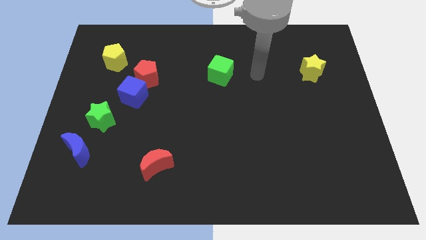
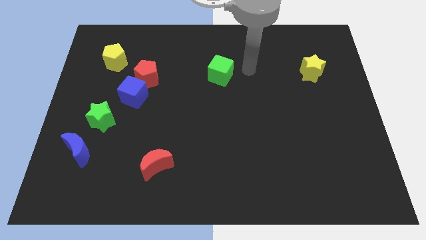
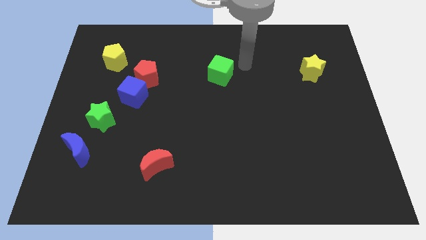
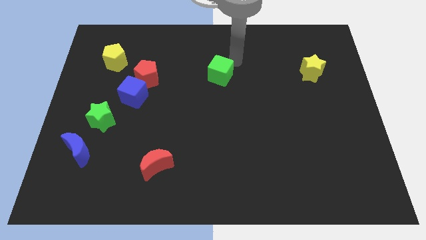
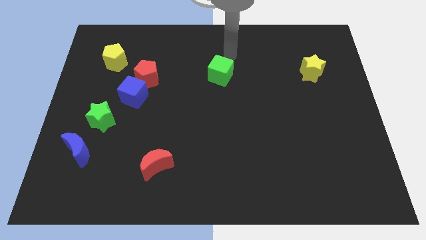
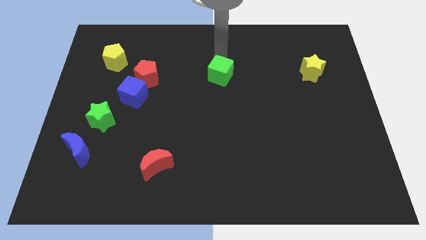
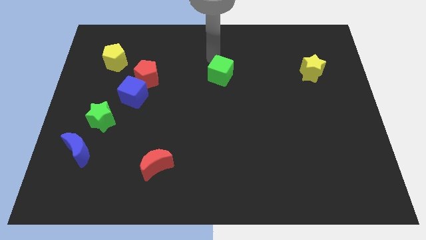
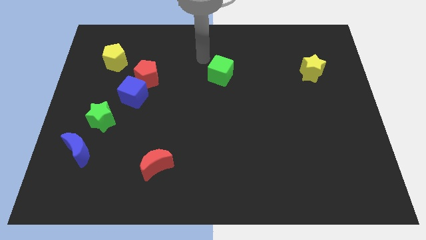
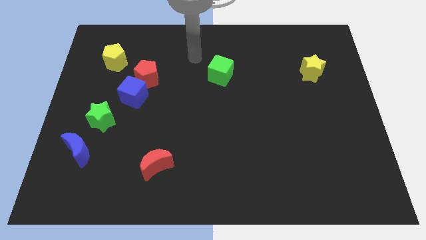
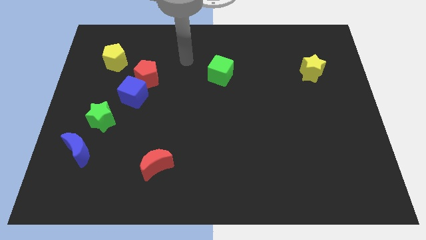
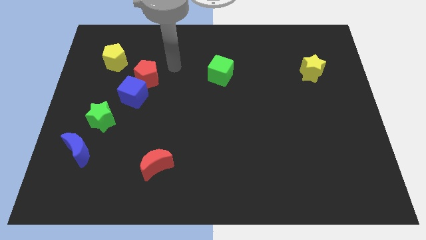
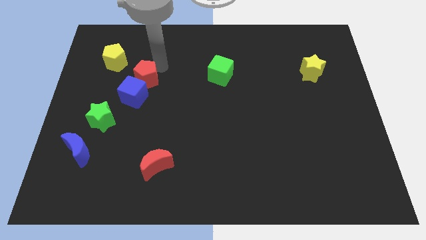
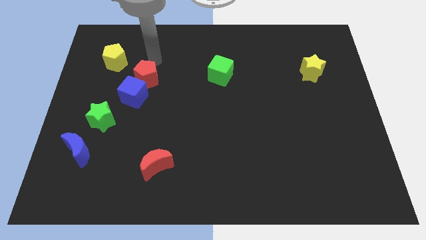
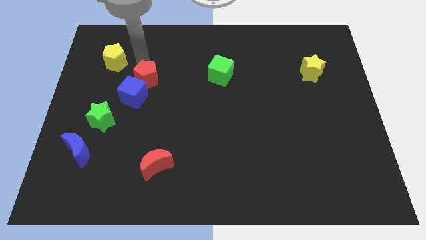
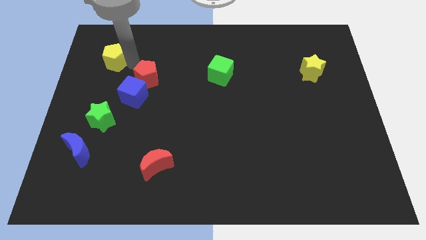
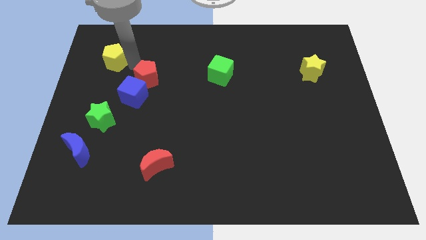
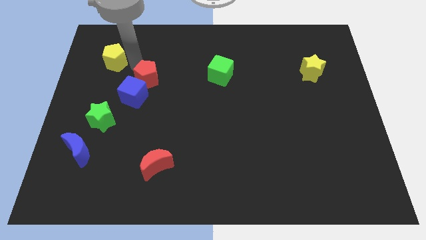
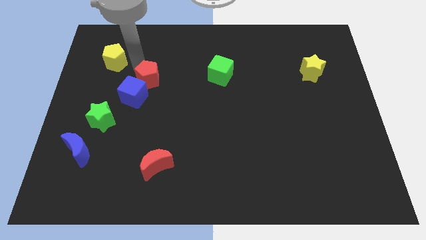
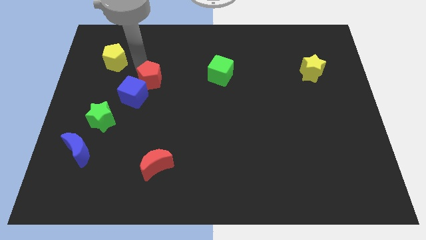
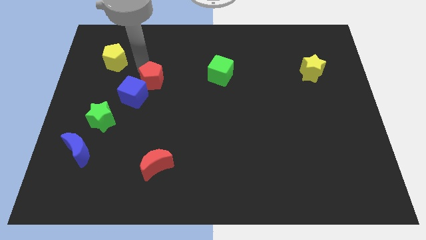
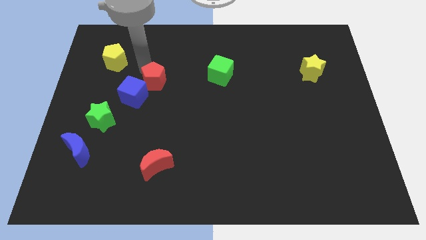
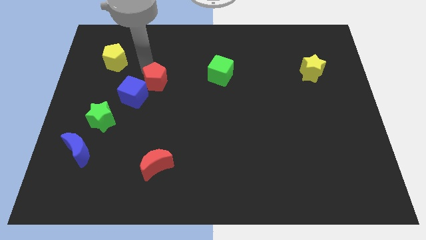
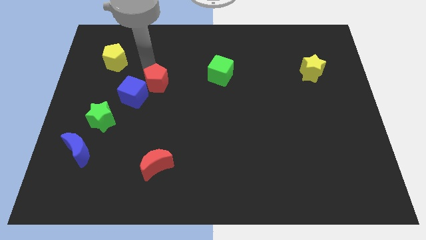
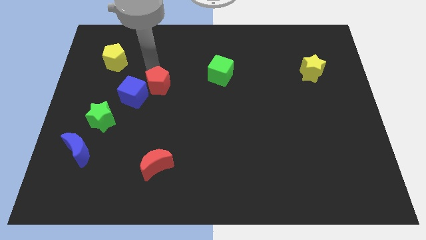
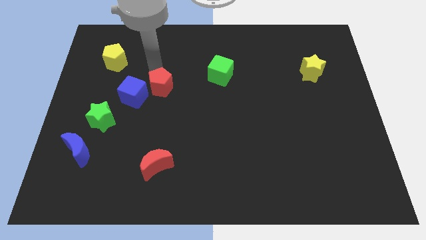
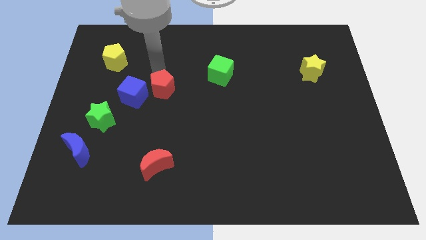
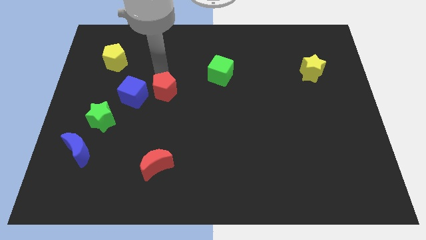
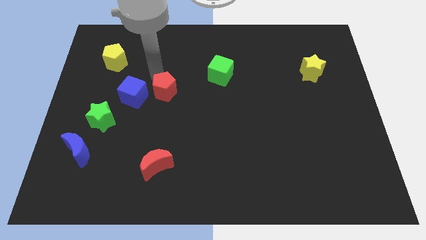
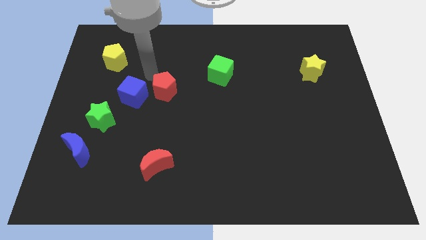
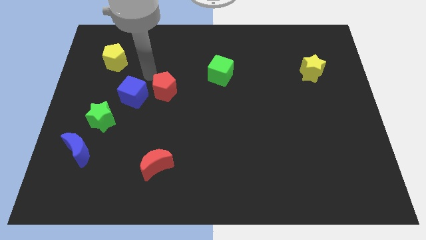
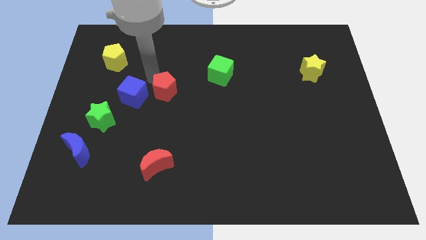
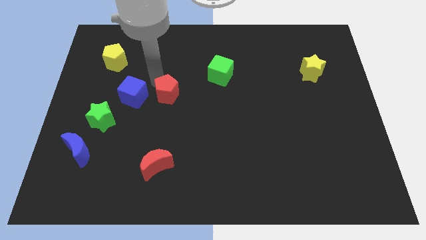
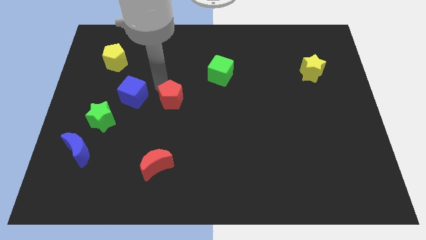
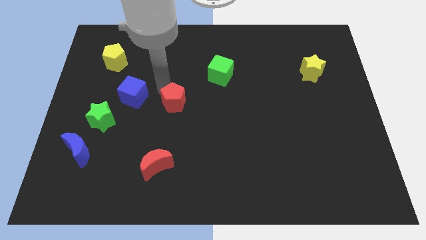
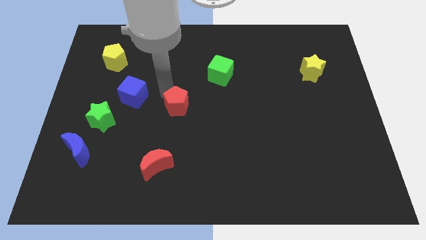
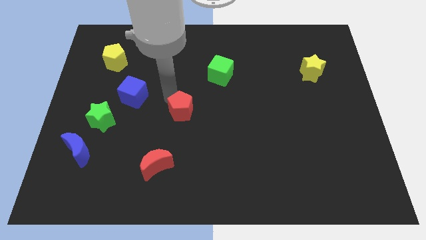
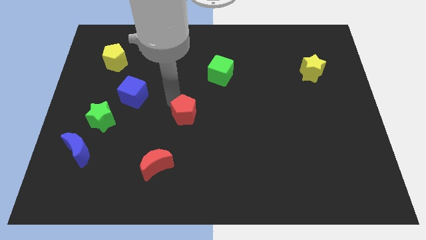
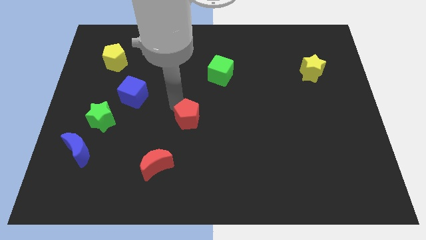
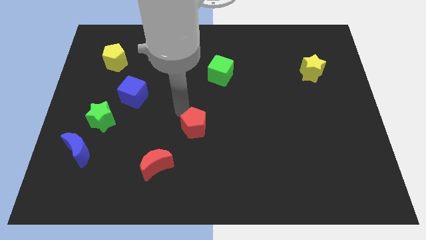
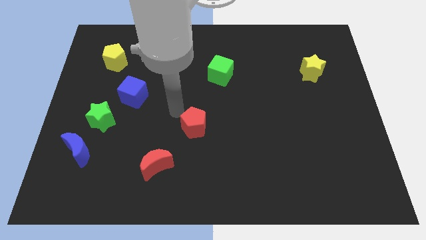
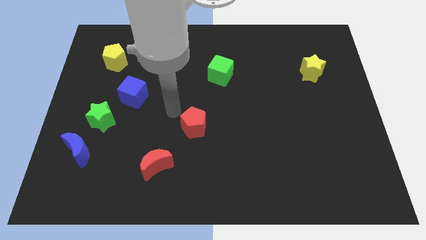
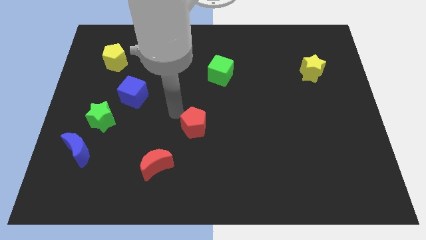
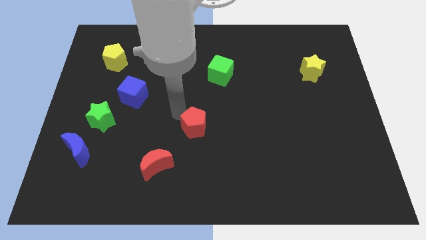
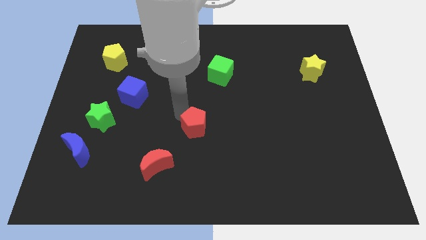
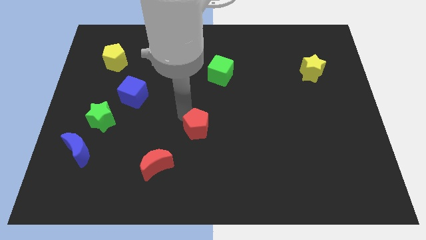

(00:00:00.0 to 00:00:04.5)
push the red pentagon downwards and then to the right

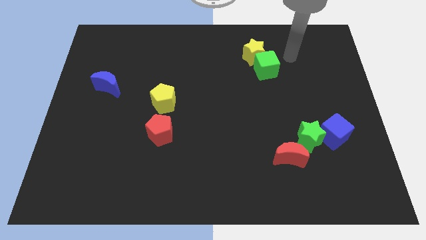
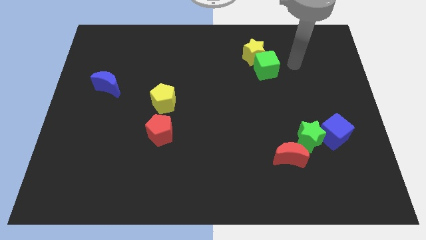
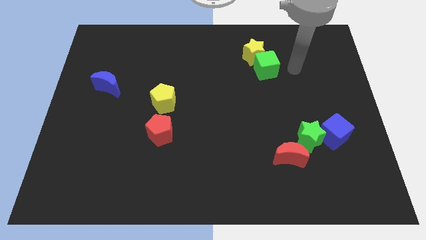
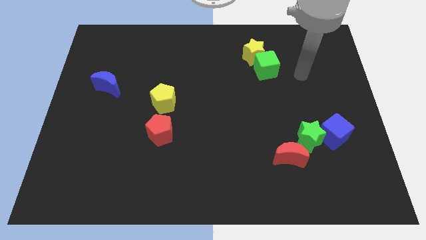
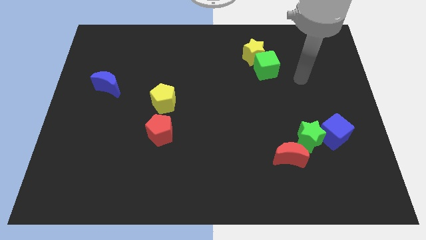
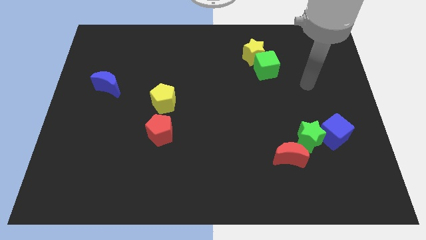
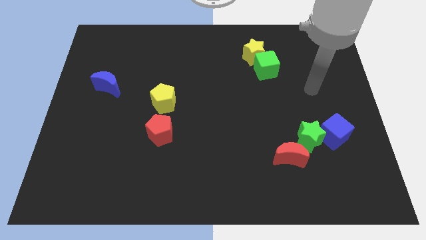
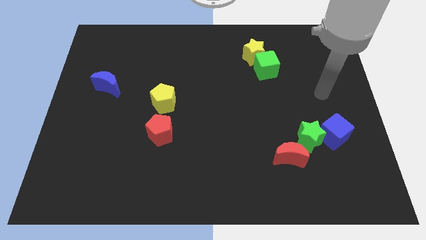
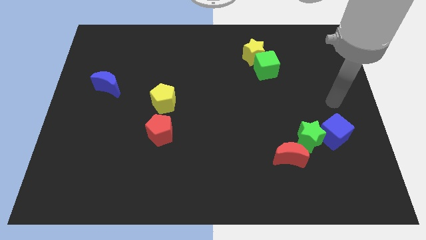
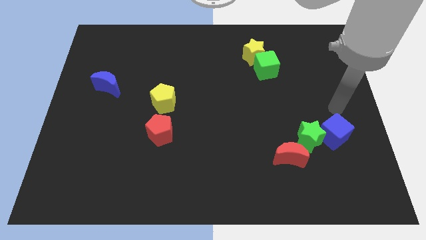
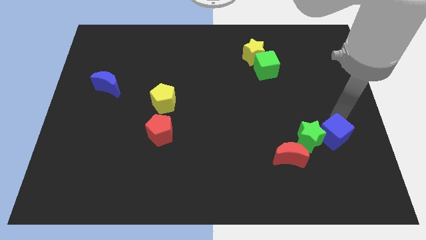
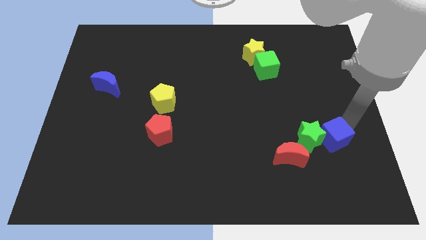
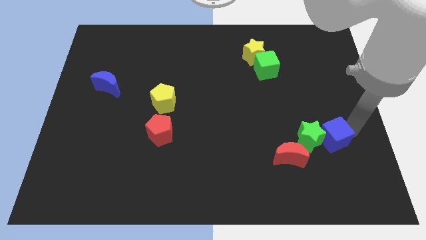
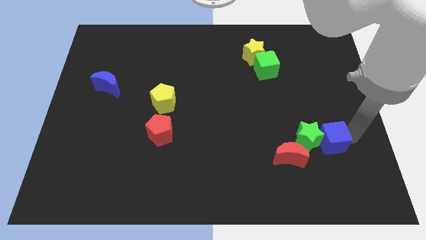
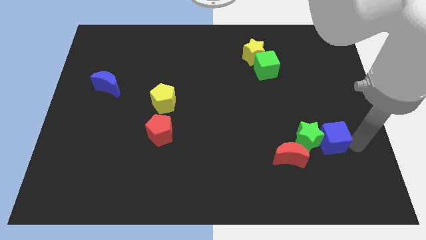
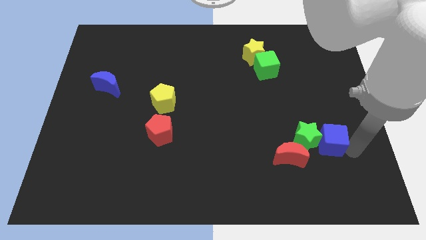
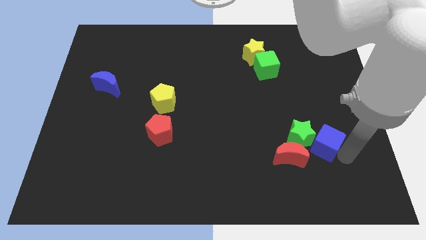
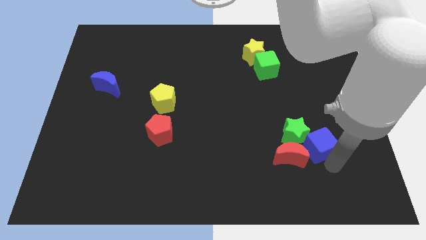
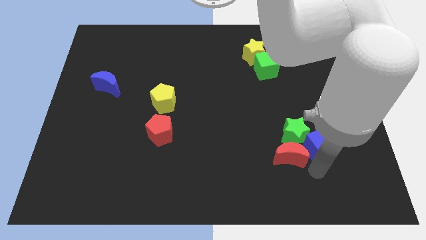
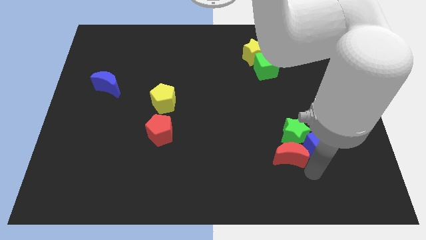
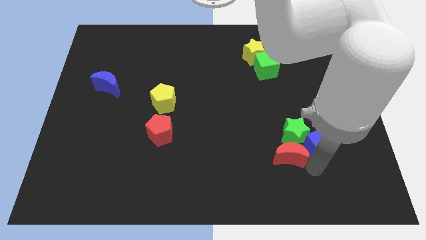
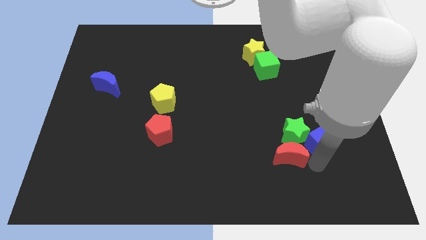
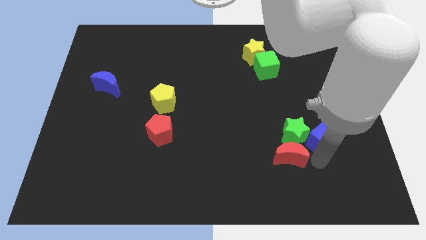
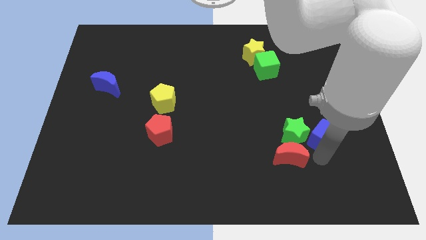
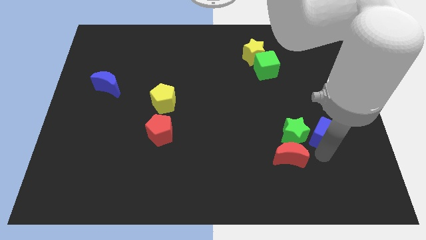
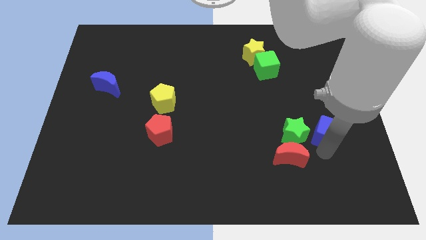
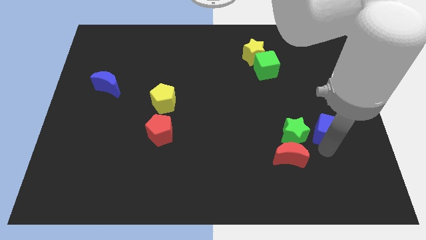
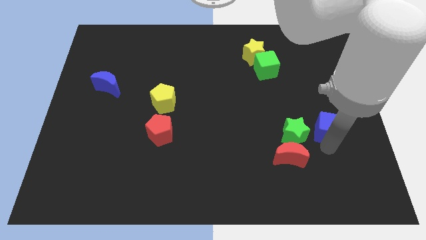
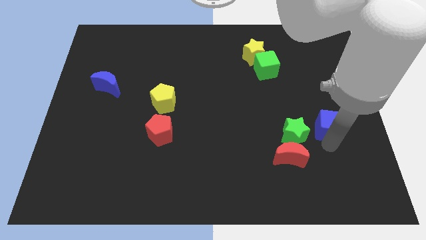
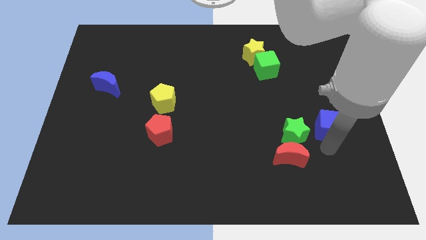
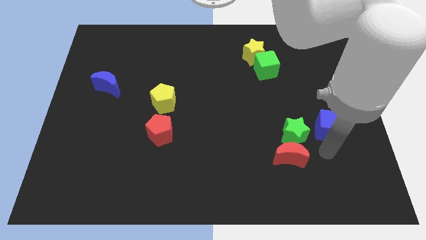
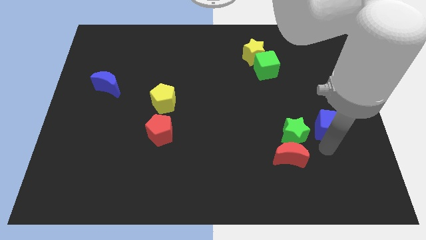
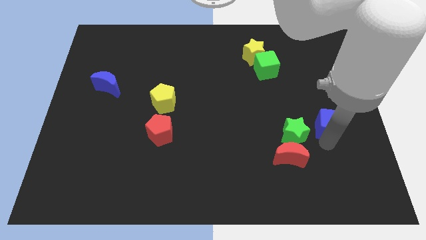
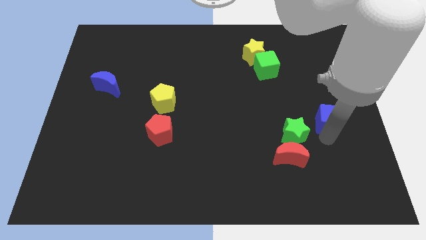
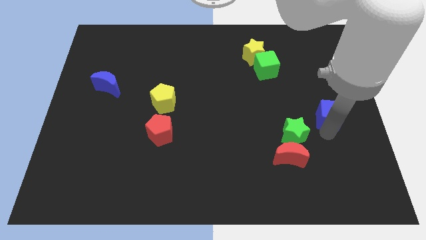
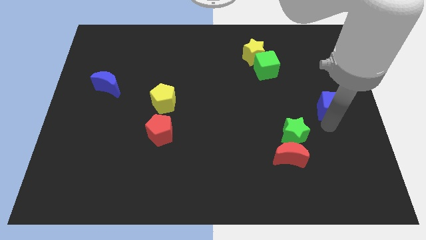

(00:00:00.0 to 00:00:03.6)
slide the blue cube up somewhat
